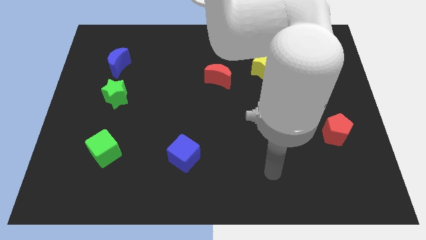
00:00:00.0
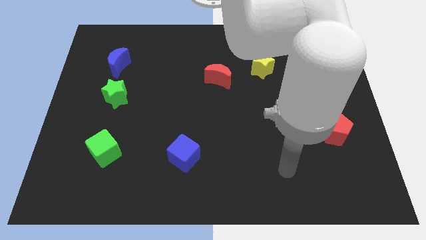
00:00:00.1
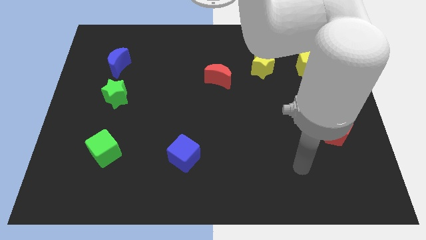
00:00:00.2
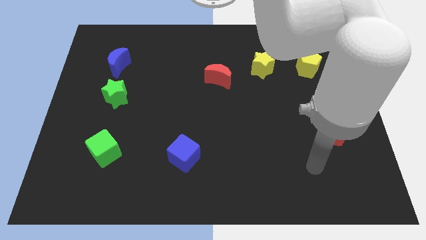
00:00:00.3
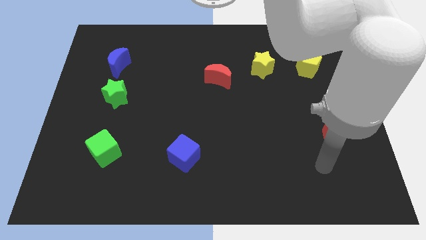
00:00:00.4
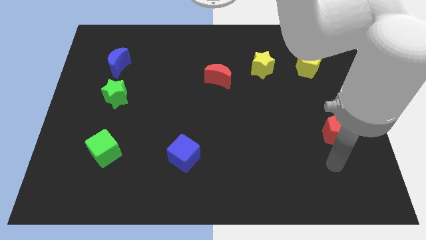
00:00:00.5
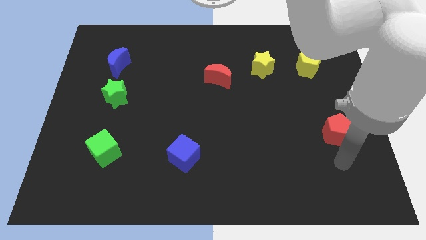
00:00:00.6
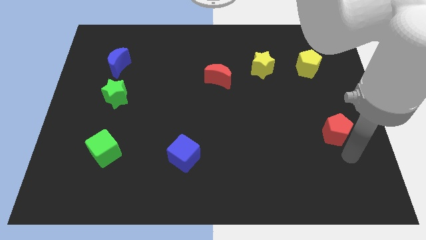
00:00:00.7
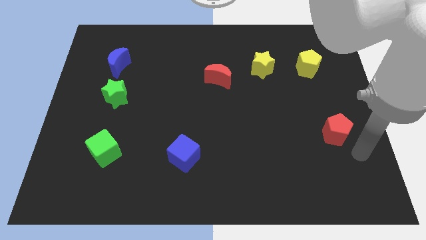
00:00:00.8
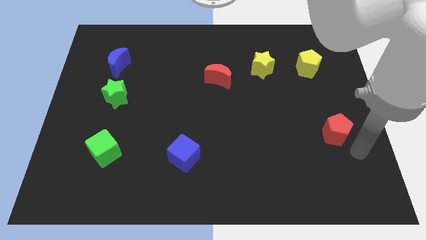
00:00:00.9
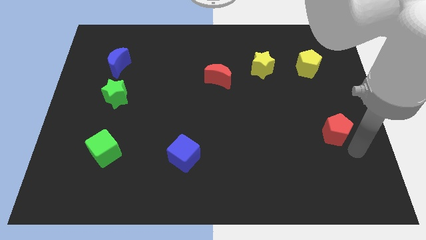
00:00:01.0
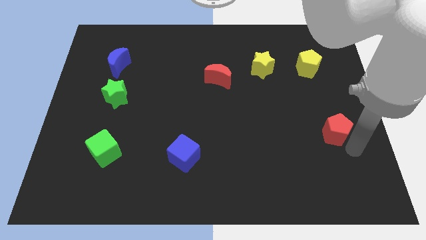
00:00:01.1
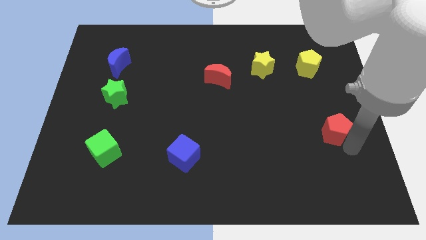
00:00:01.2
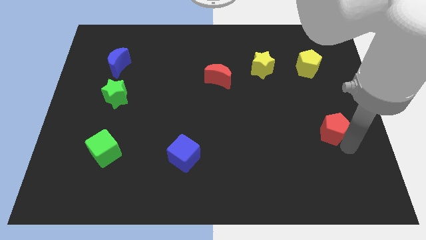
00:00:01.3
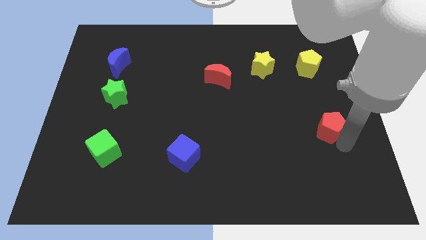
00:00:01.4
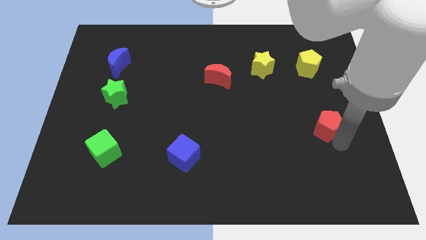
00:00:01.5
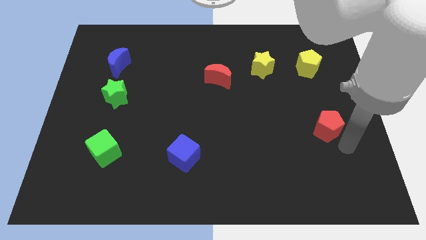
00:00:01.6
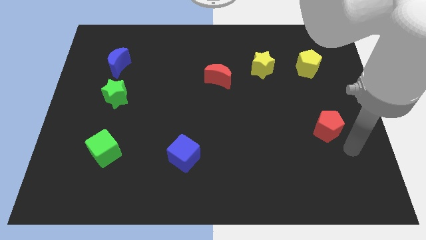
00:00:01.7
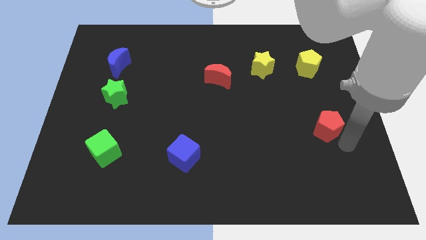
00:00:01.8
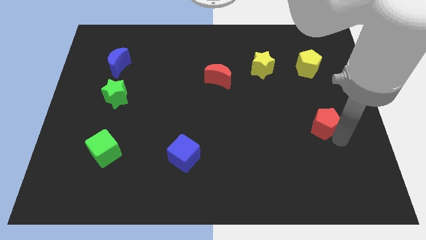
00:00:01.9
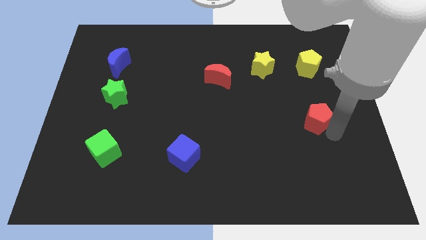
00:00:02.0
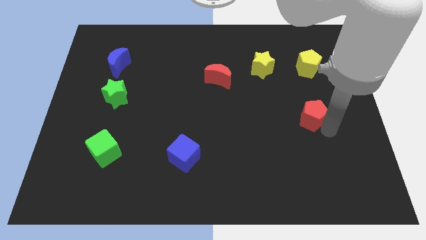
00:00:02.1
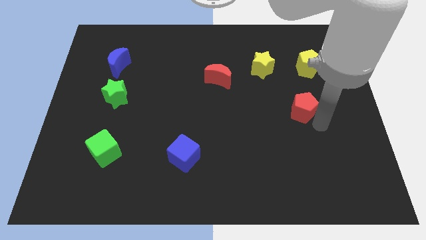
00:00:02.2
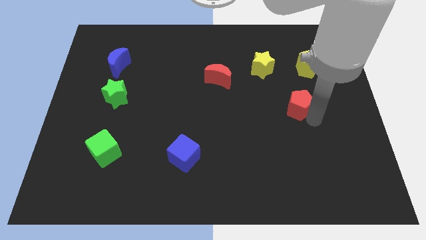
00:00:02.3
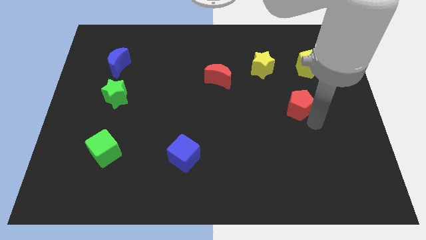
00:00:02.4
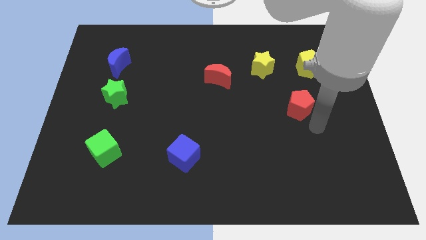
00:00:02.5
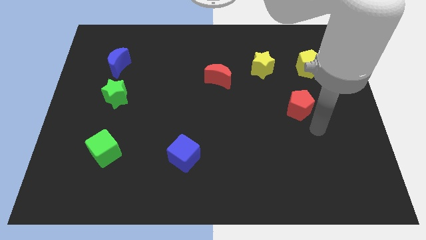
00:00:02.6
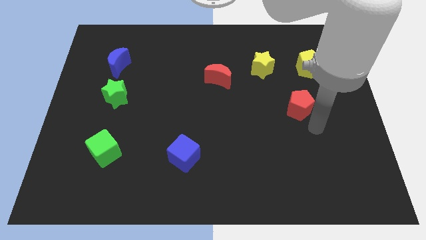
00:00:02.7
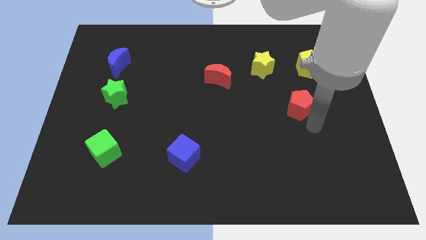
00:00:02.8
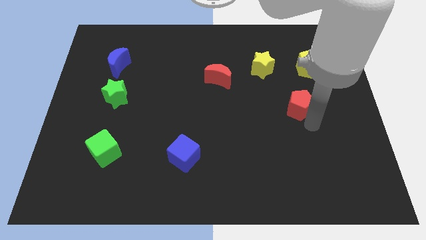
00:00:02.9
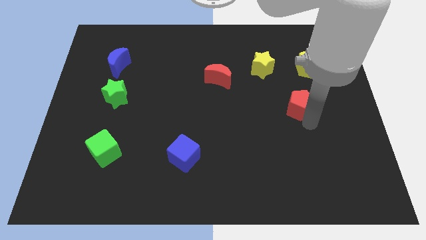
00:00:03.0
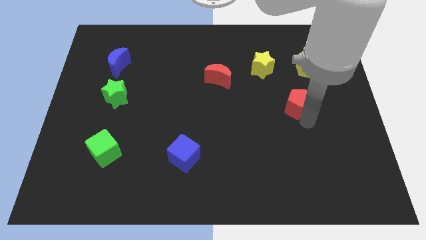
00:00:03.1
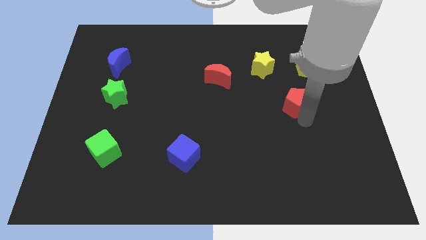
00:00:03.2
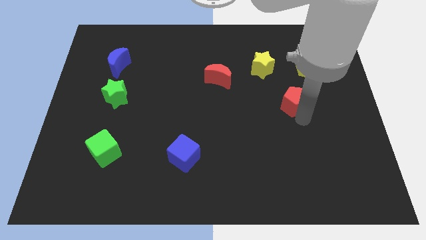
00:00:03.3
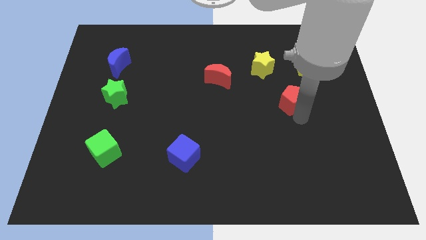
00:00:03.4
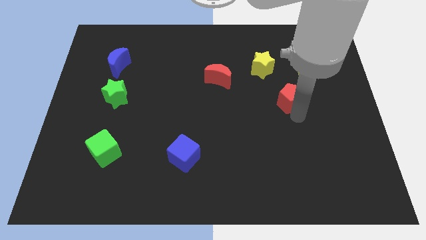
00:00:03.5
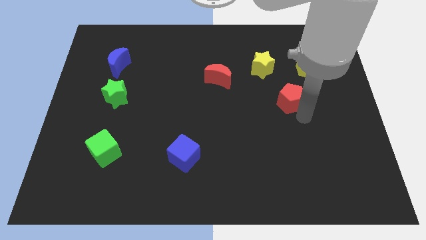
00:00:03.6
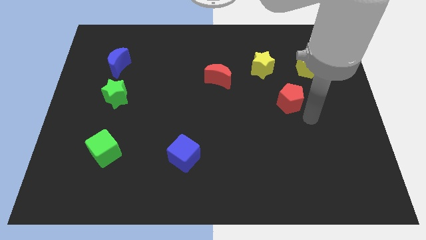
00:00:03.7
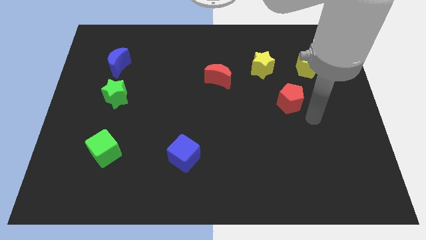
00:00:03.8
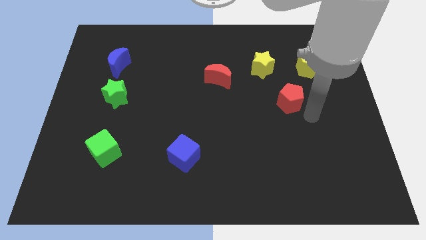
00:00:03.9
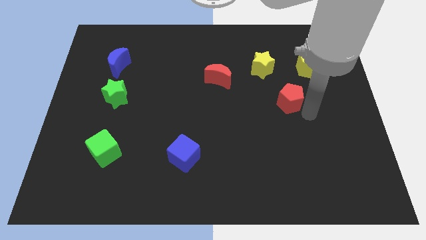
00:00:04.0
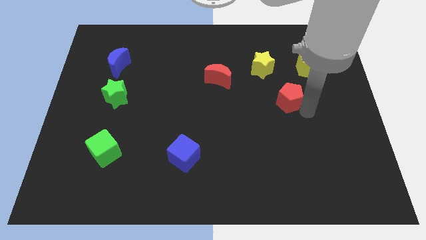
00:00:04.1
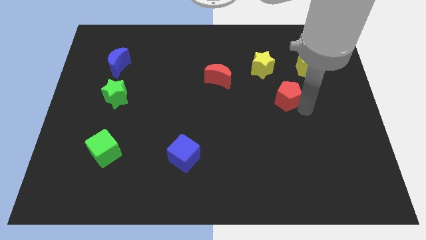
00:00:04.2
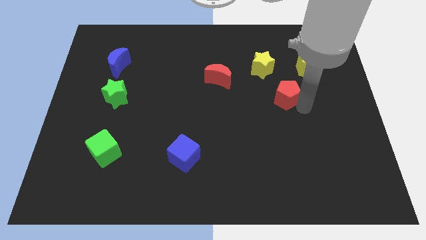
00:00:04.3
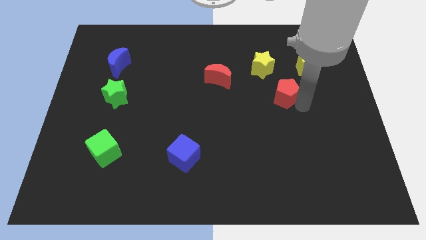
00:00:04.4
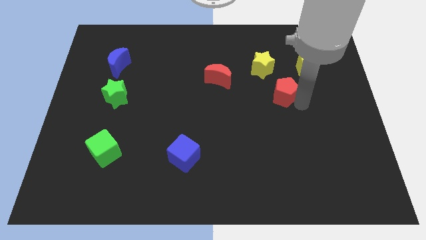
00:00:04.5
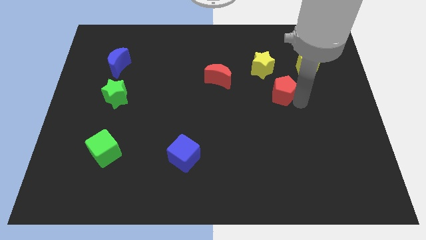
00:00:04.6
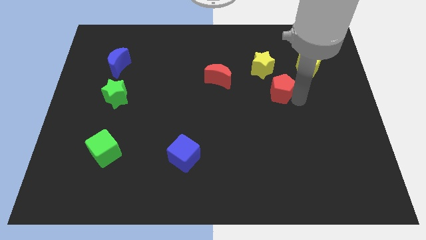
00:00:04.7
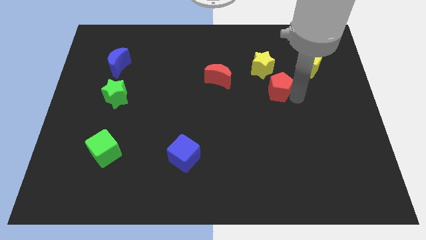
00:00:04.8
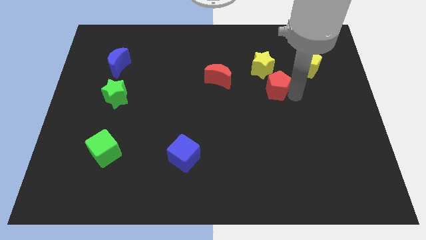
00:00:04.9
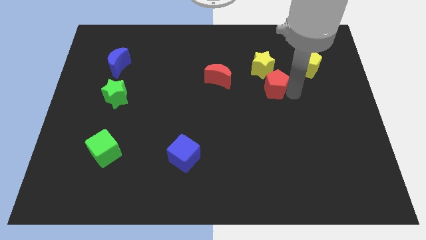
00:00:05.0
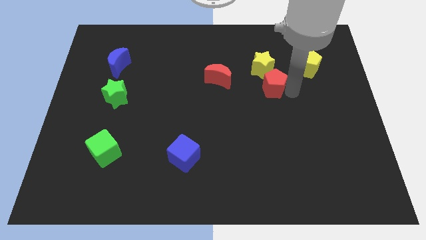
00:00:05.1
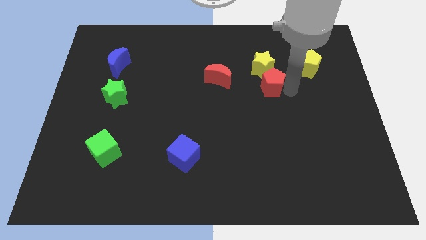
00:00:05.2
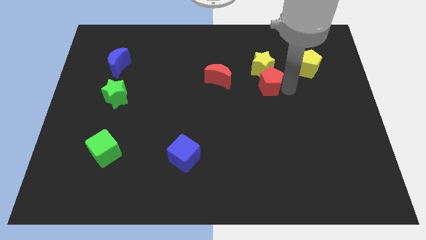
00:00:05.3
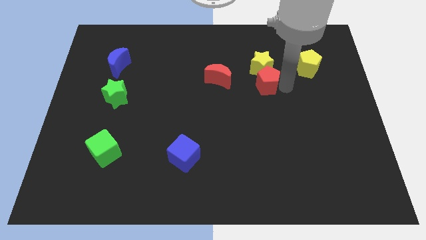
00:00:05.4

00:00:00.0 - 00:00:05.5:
push the red pentagon upwards and left diagonally

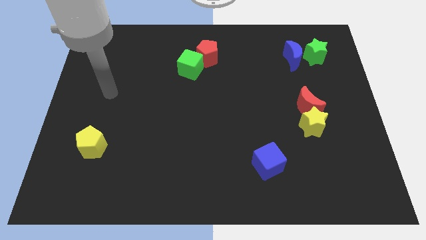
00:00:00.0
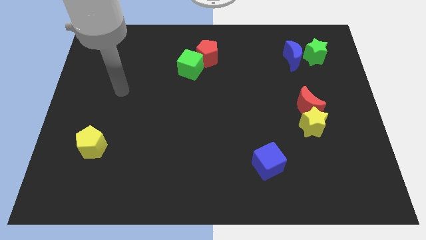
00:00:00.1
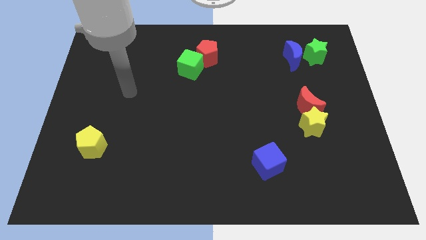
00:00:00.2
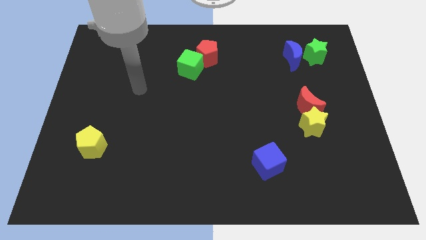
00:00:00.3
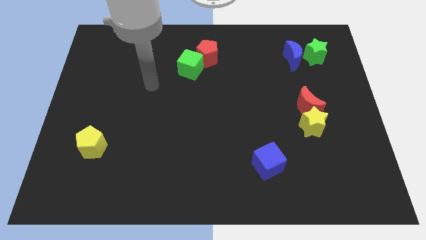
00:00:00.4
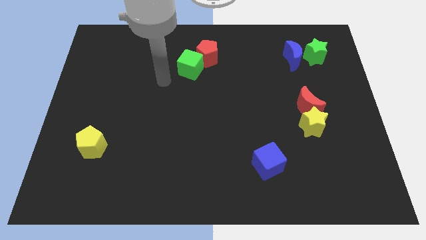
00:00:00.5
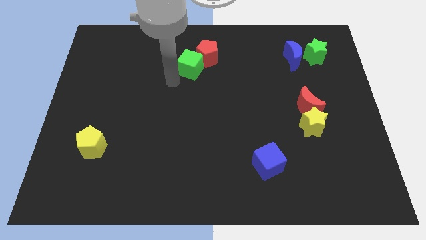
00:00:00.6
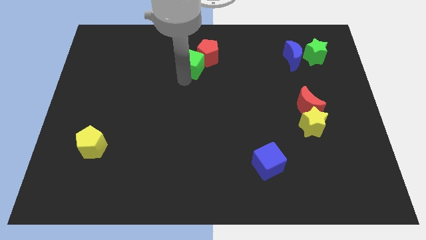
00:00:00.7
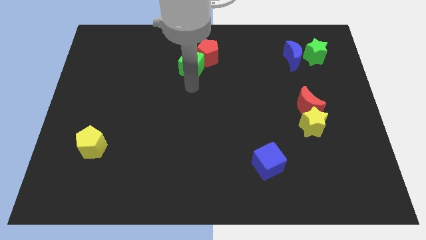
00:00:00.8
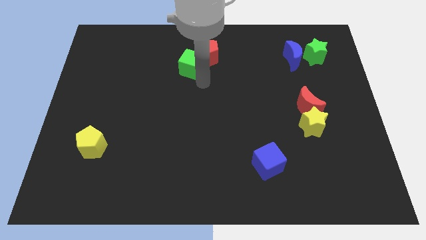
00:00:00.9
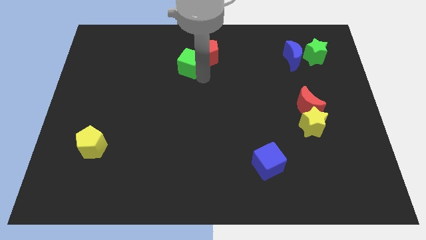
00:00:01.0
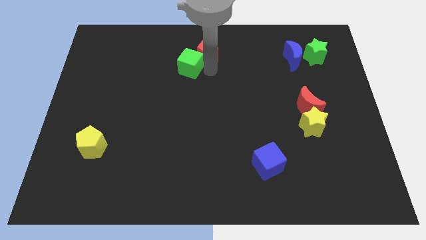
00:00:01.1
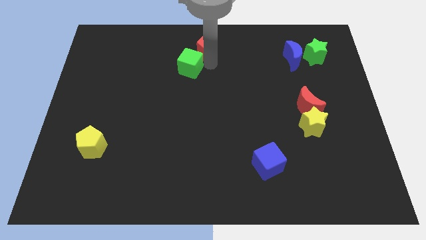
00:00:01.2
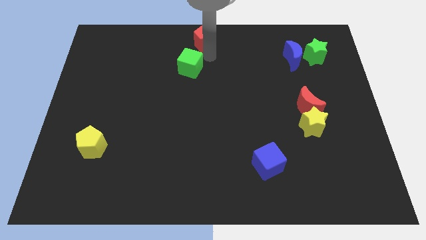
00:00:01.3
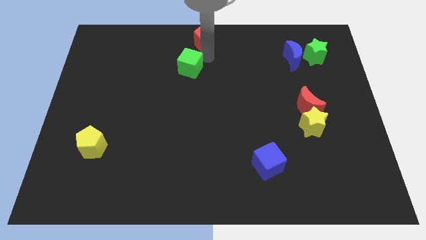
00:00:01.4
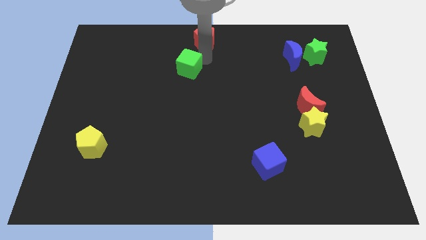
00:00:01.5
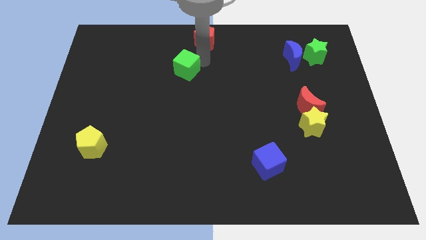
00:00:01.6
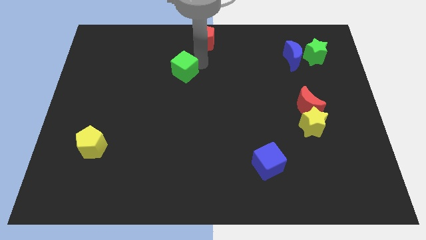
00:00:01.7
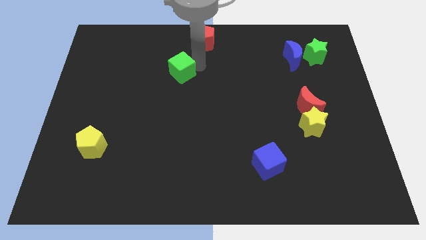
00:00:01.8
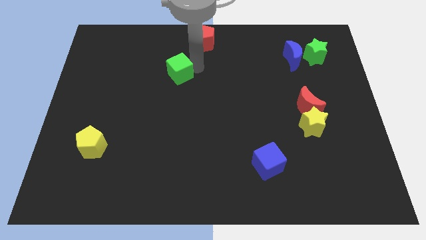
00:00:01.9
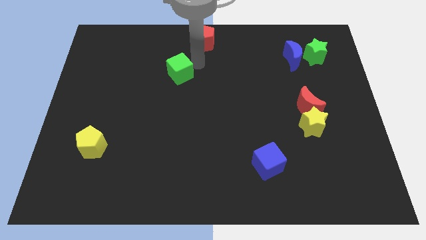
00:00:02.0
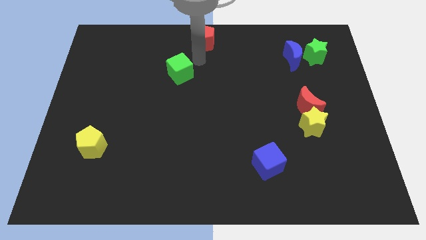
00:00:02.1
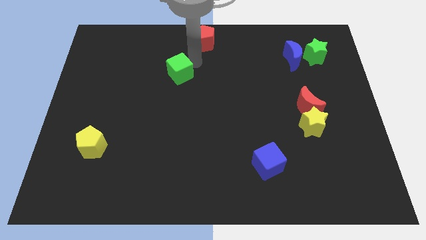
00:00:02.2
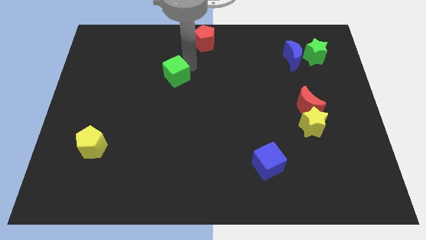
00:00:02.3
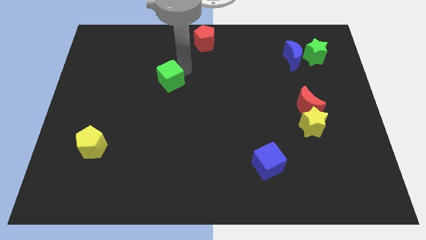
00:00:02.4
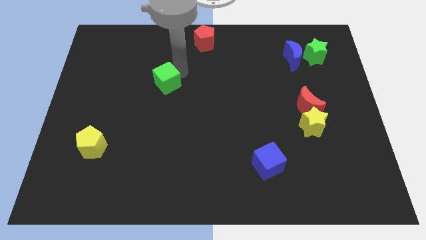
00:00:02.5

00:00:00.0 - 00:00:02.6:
push the green cube downwards and left somewhat
